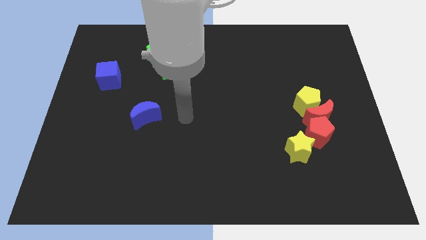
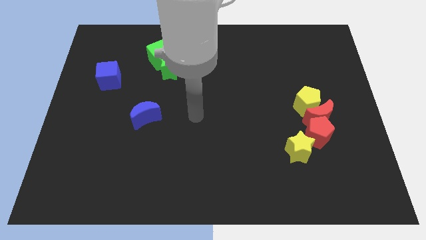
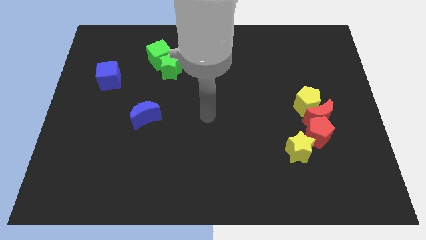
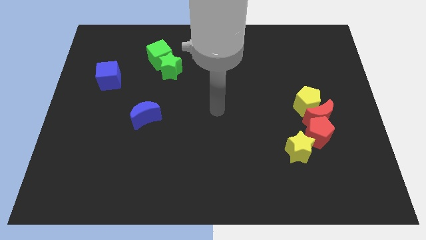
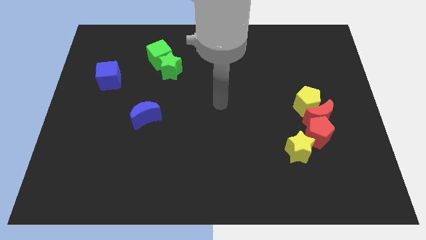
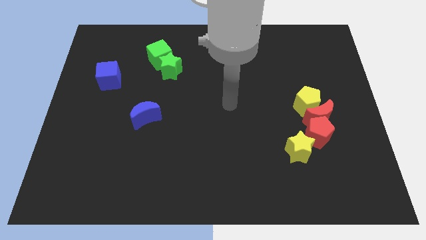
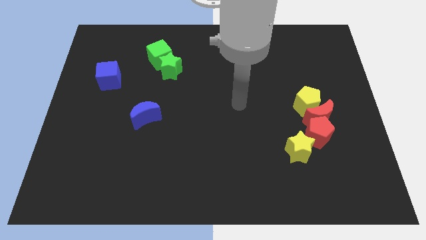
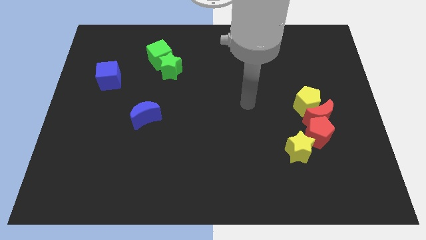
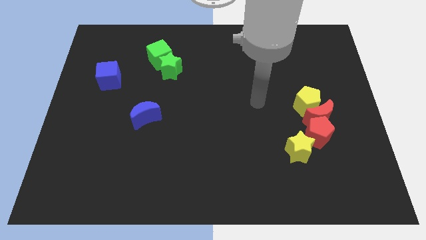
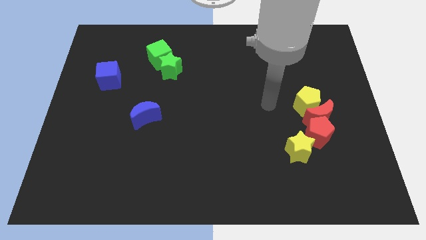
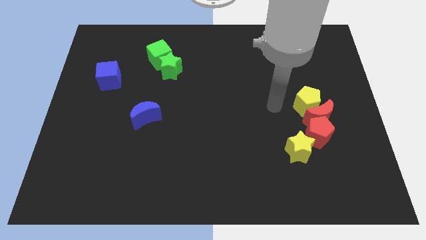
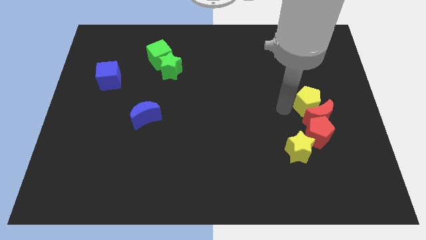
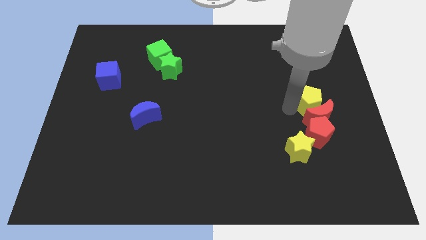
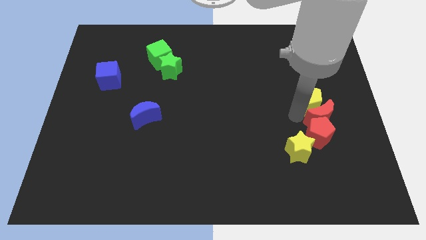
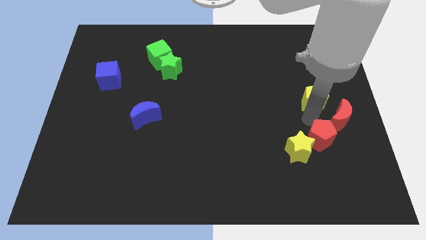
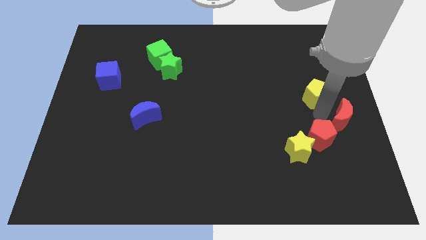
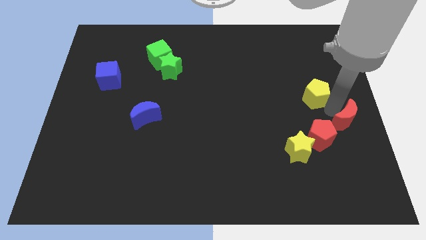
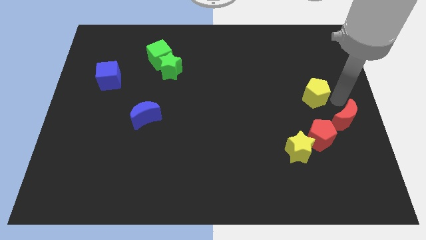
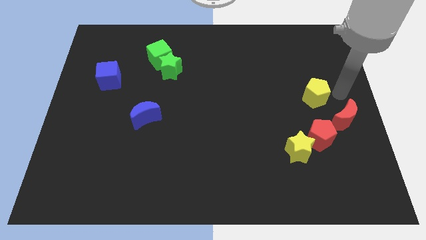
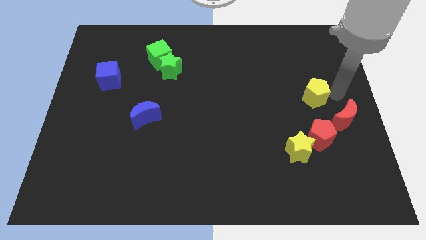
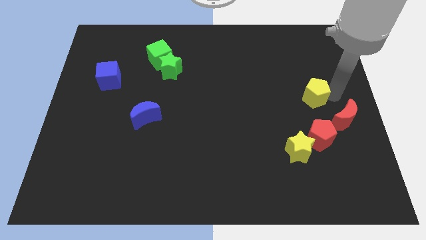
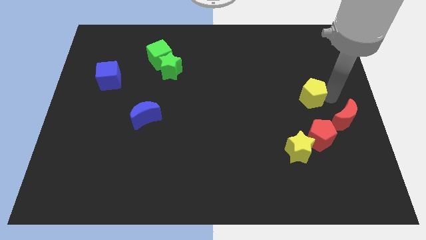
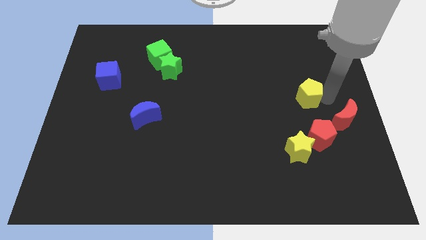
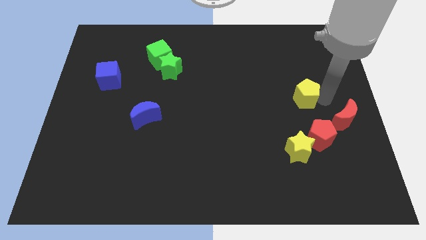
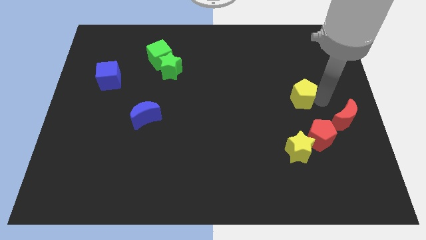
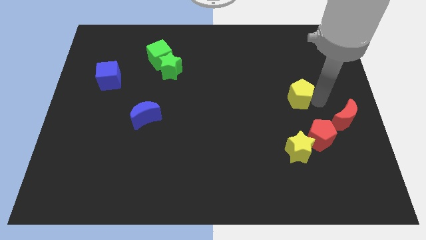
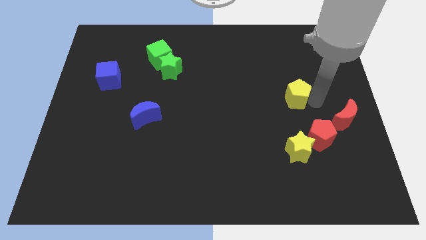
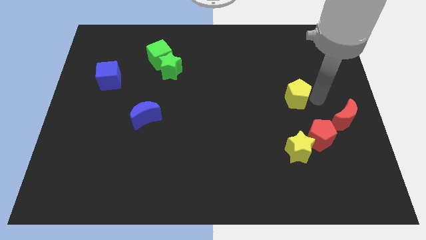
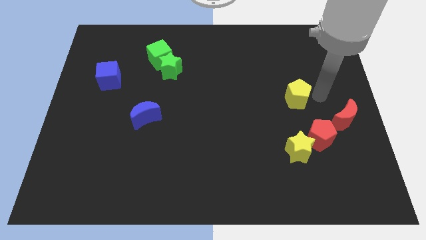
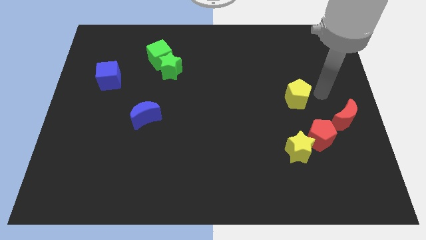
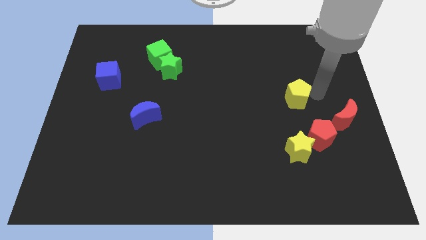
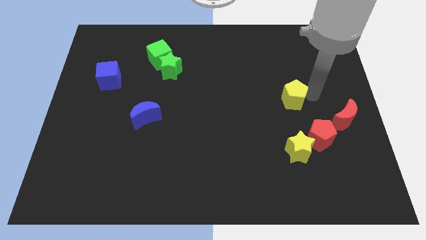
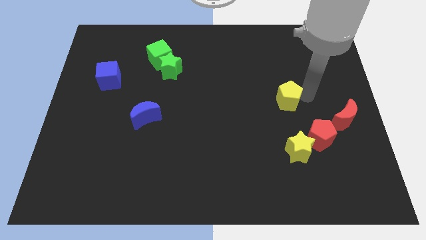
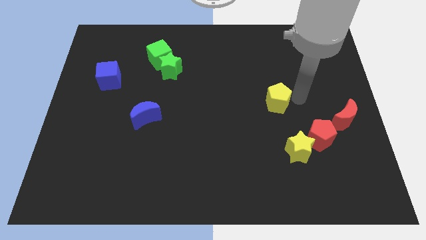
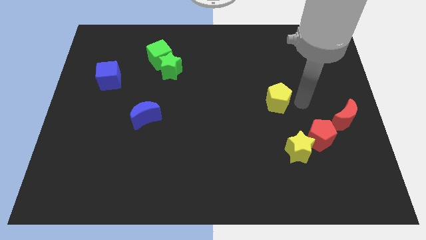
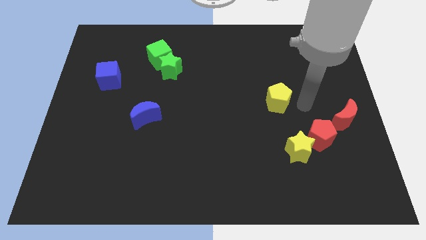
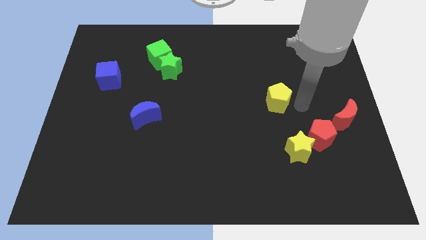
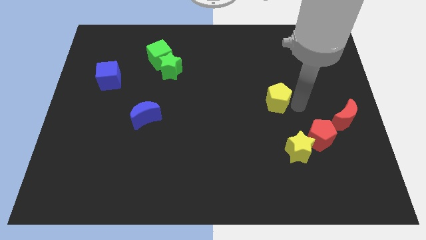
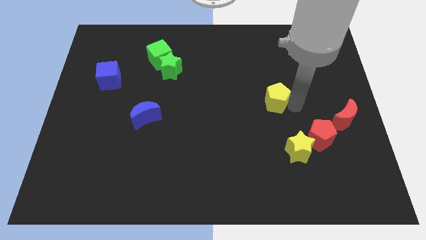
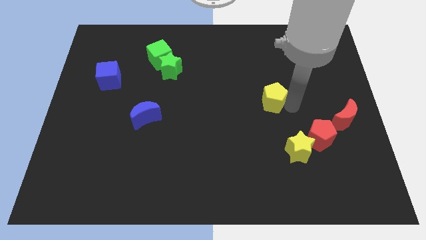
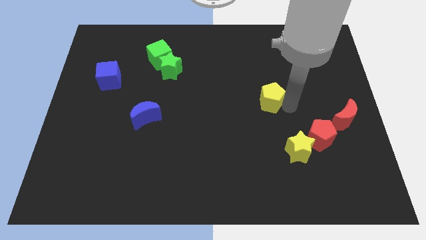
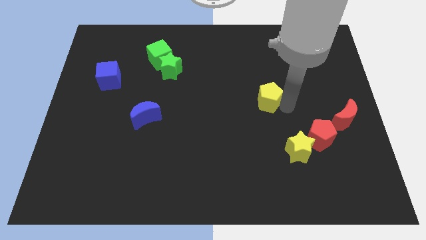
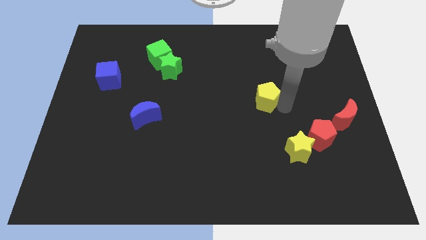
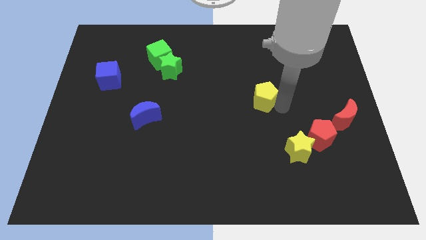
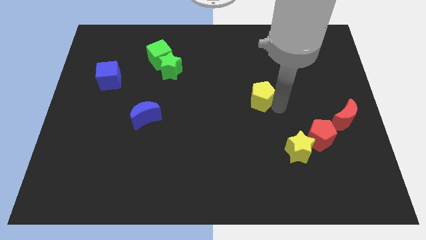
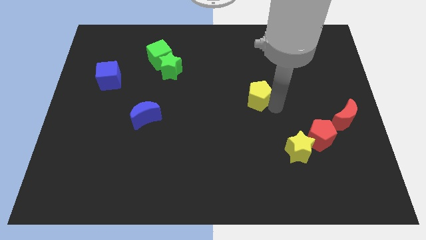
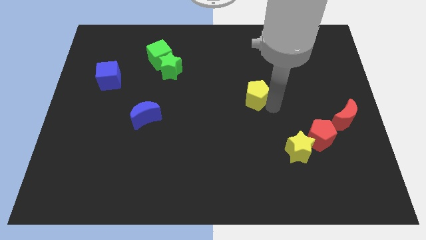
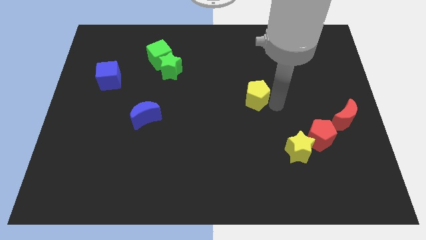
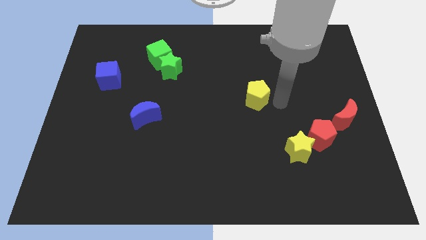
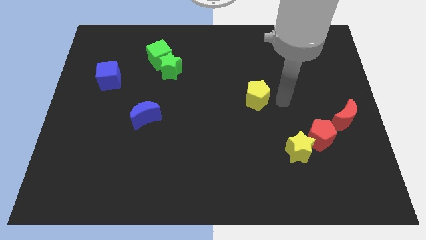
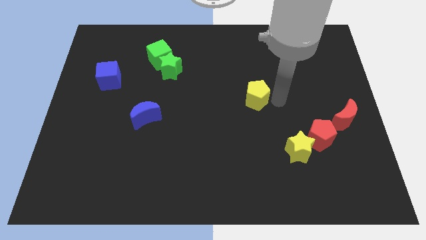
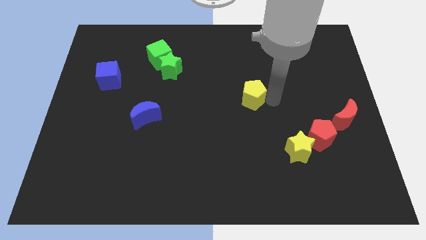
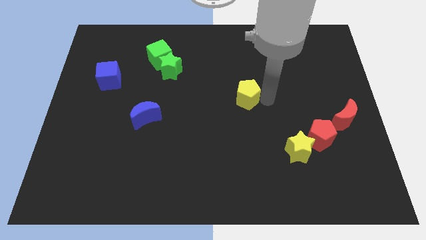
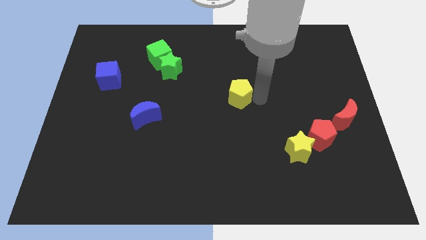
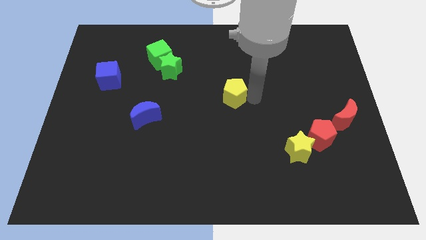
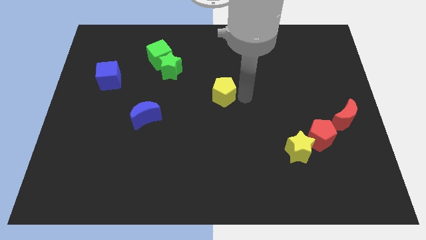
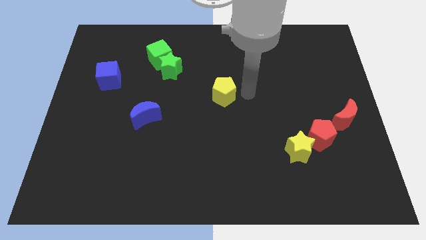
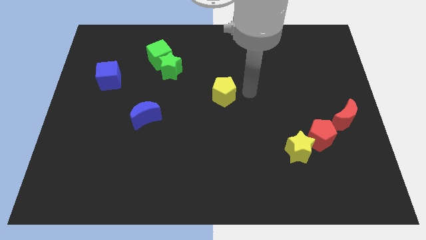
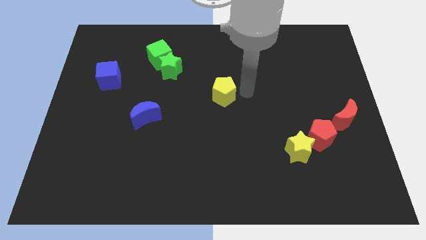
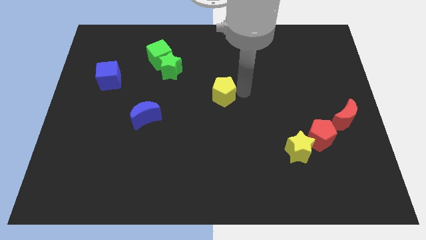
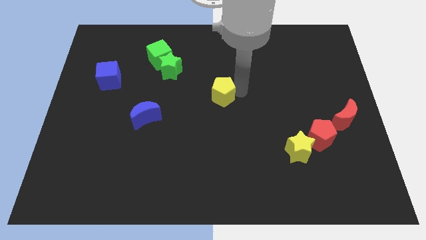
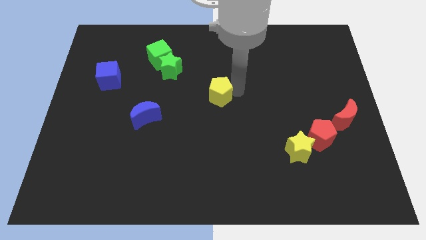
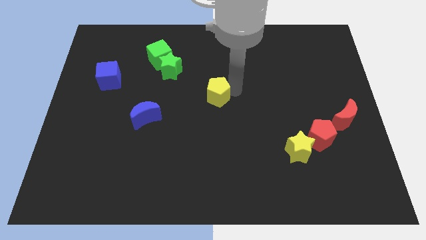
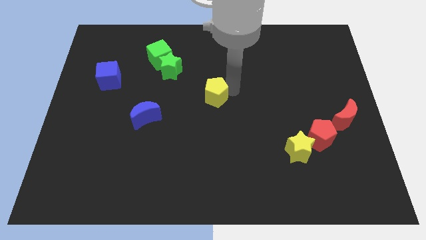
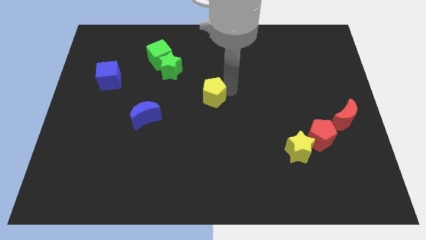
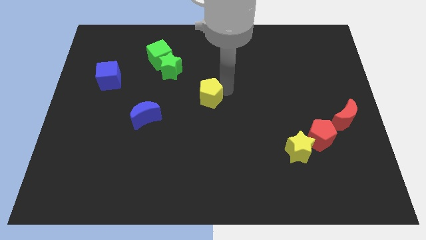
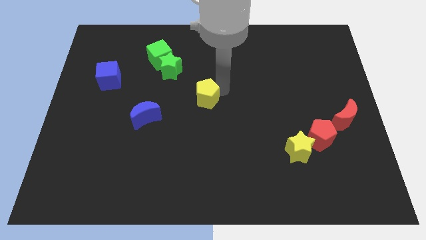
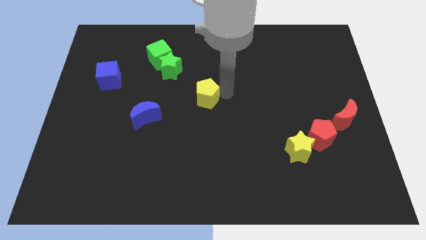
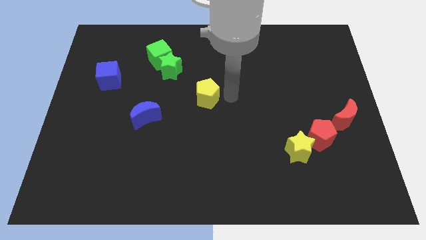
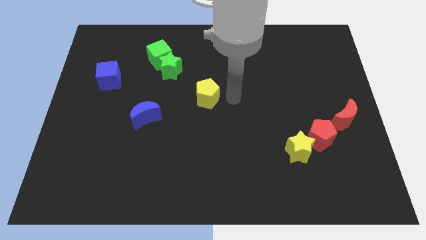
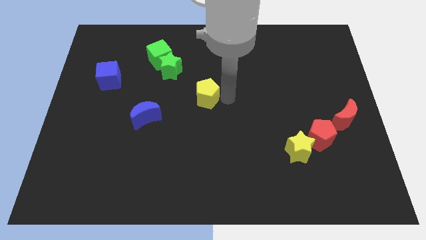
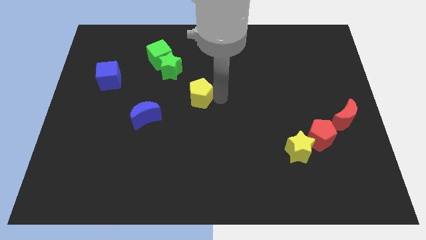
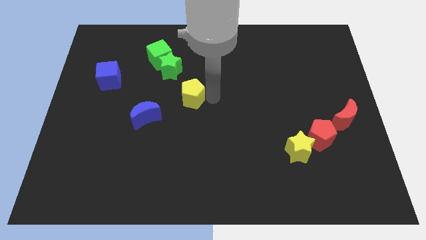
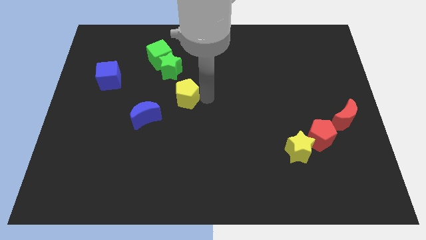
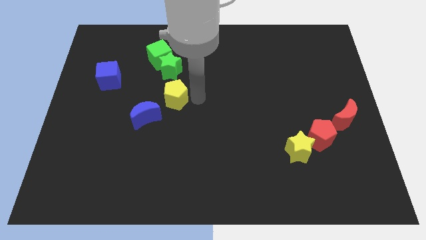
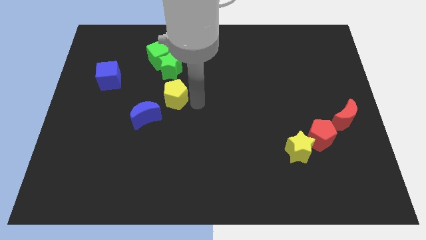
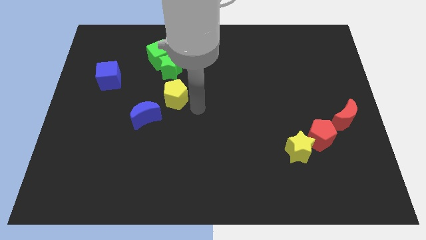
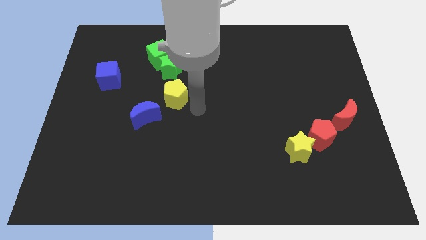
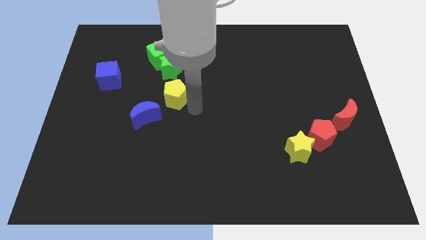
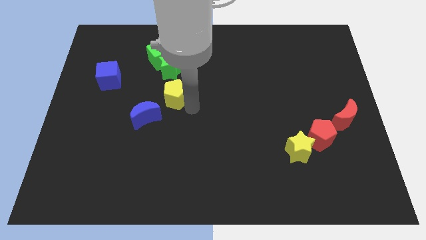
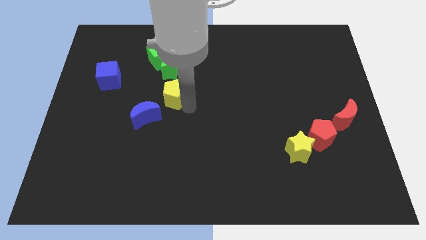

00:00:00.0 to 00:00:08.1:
slide the yellow pentagon to the bottom side of the green cube
